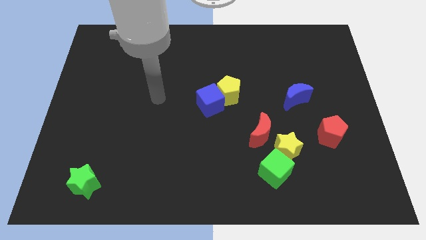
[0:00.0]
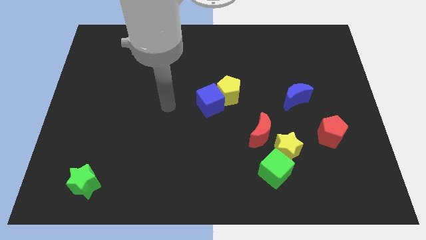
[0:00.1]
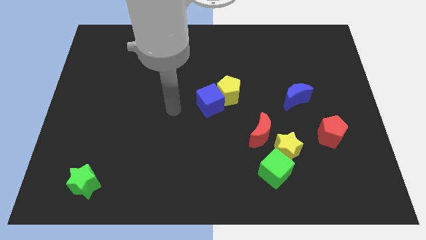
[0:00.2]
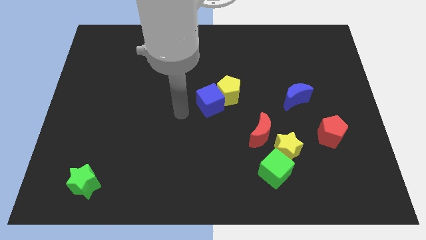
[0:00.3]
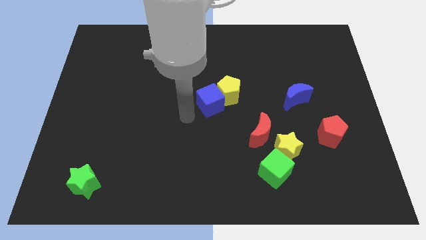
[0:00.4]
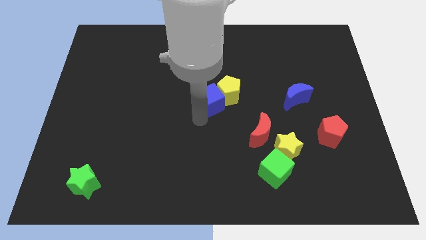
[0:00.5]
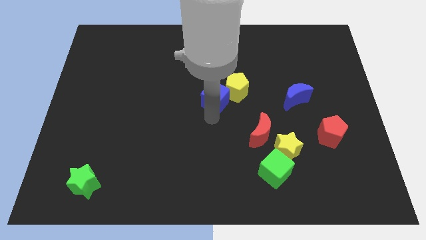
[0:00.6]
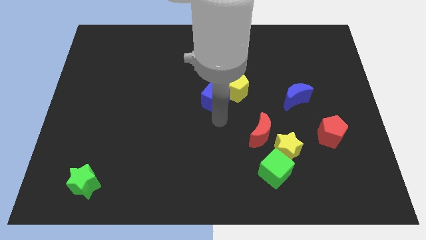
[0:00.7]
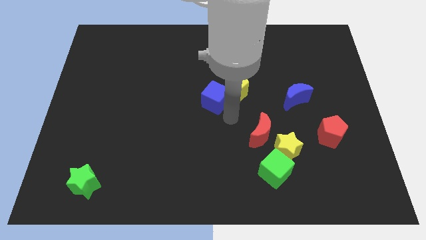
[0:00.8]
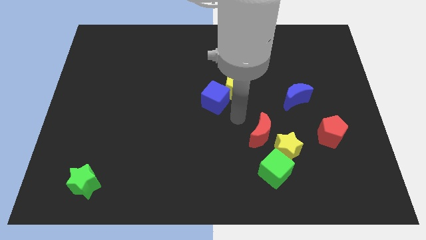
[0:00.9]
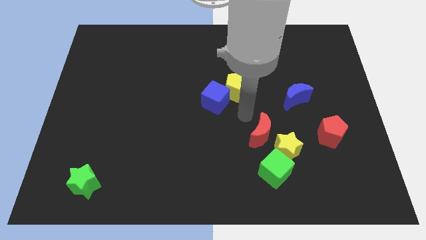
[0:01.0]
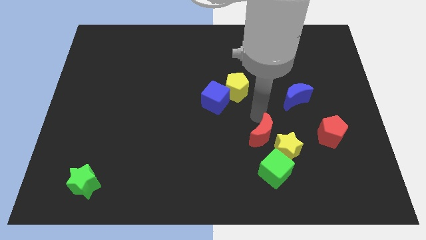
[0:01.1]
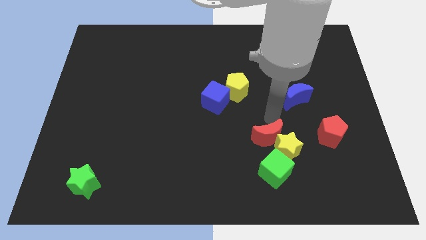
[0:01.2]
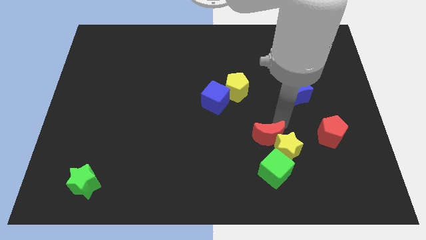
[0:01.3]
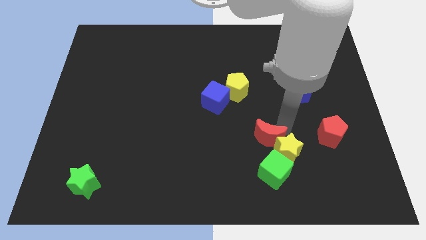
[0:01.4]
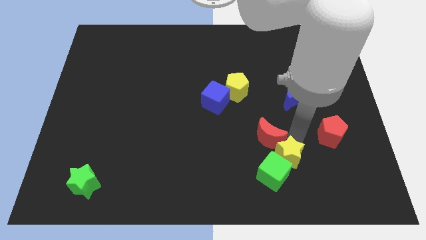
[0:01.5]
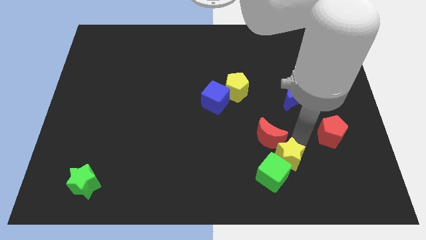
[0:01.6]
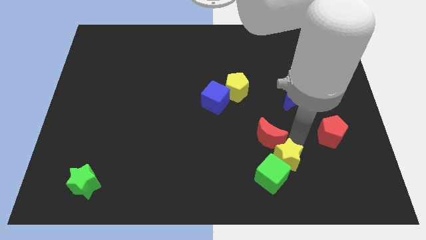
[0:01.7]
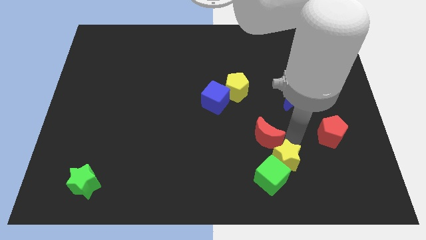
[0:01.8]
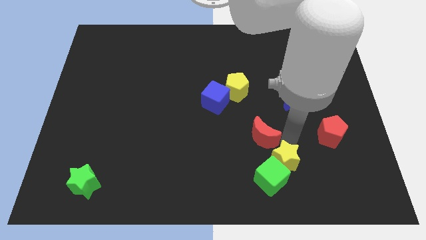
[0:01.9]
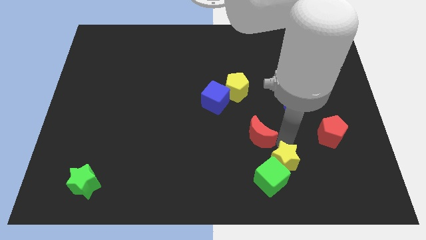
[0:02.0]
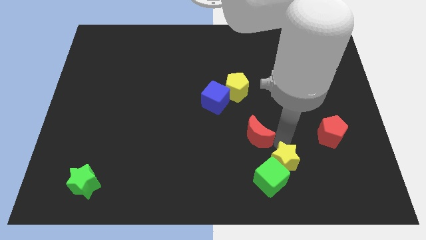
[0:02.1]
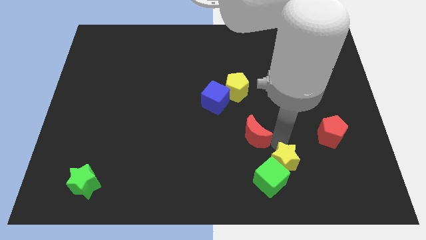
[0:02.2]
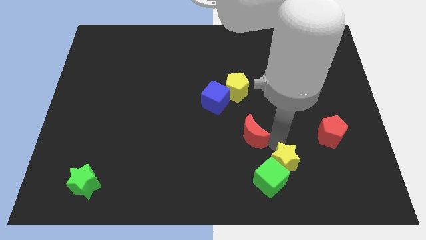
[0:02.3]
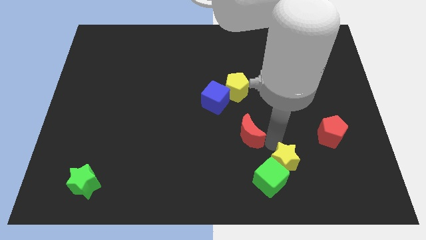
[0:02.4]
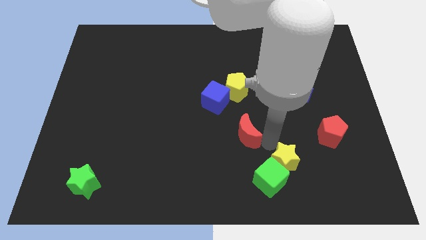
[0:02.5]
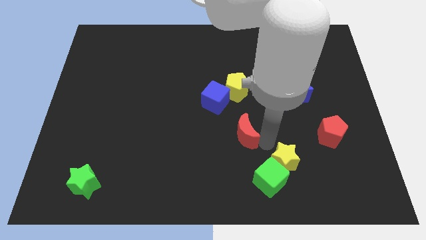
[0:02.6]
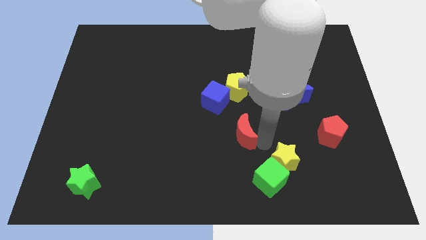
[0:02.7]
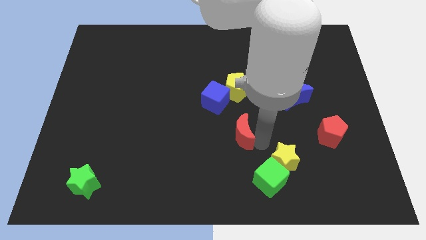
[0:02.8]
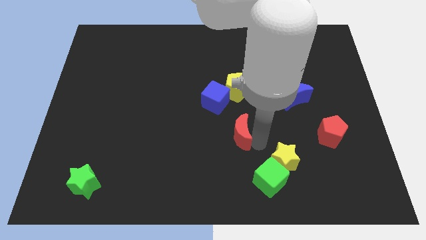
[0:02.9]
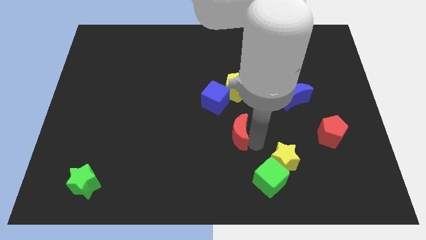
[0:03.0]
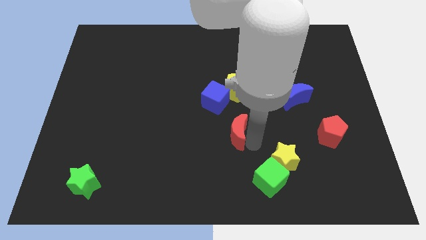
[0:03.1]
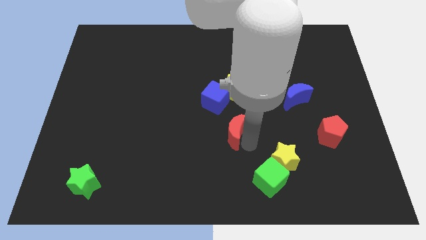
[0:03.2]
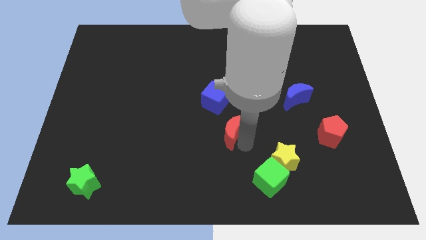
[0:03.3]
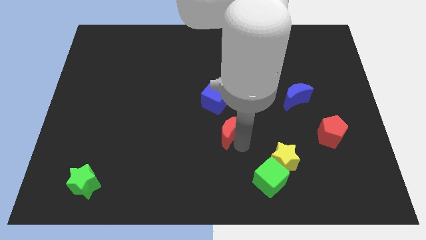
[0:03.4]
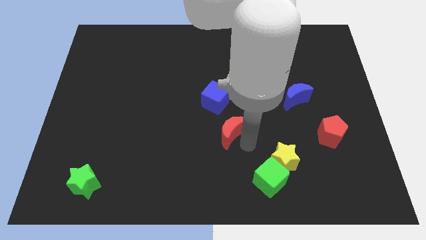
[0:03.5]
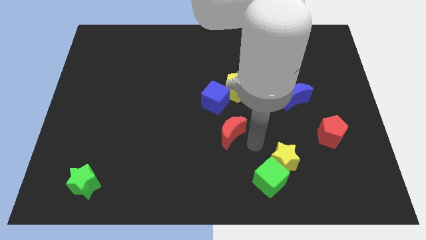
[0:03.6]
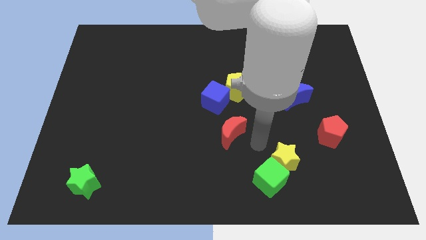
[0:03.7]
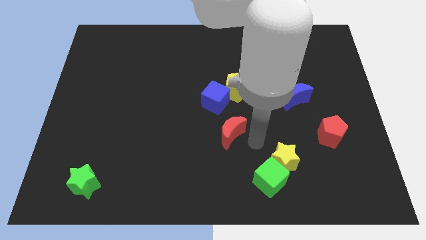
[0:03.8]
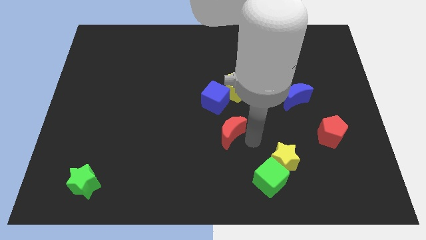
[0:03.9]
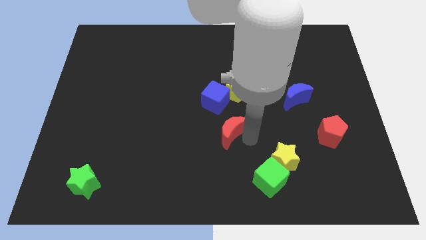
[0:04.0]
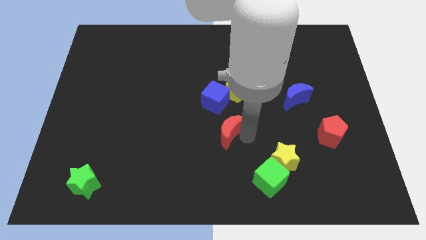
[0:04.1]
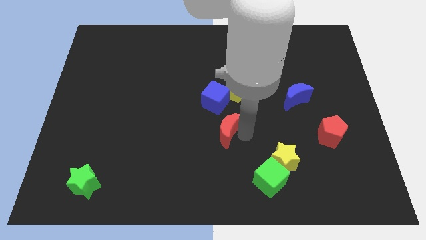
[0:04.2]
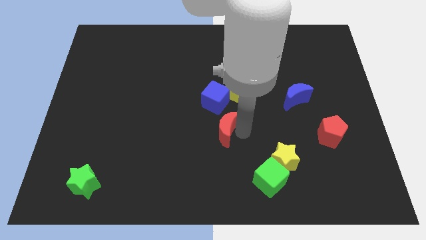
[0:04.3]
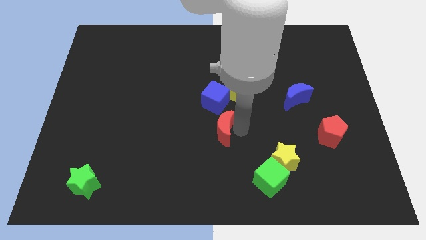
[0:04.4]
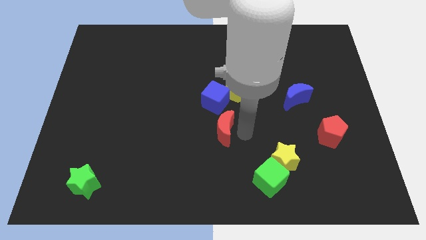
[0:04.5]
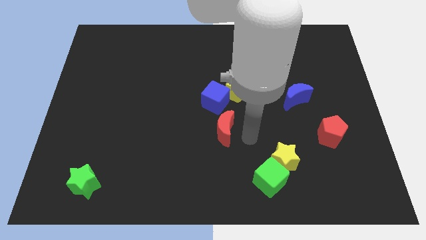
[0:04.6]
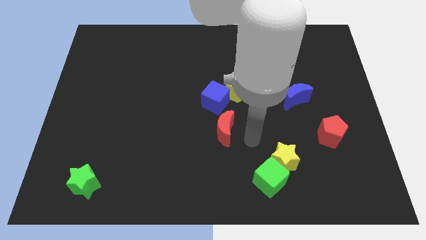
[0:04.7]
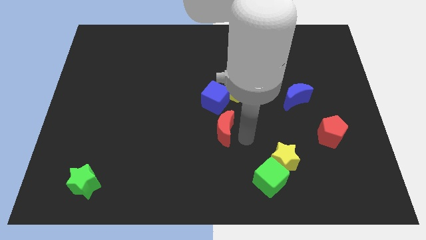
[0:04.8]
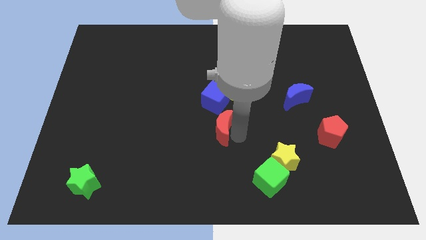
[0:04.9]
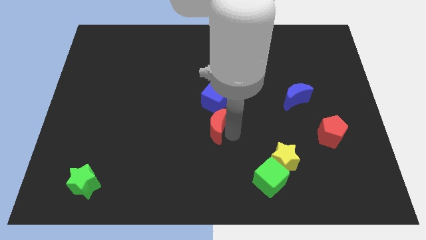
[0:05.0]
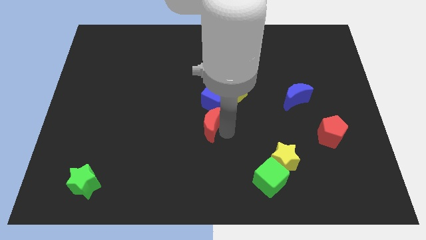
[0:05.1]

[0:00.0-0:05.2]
move the red moon to the bottom left of the blue cube

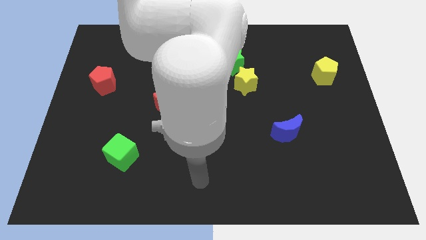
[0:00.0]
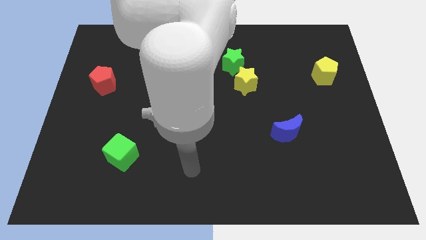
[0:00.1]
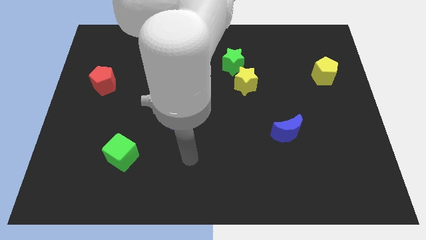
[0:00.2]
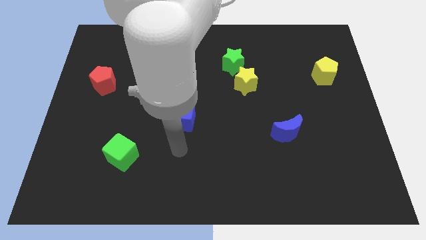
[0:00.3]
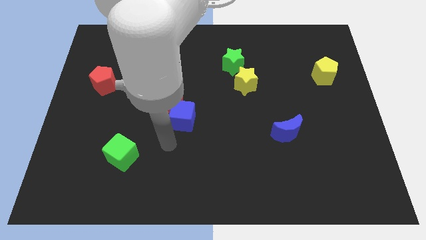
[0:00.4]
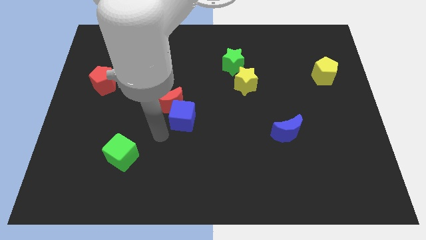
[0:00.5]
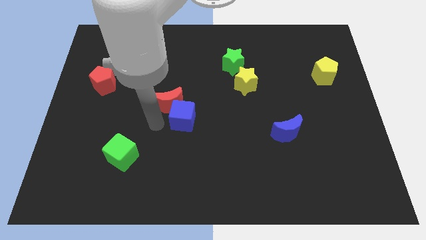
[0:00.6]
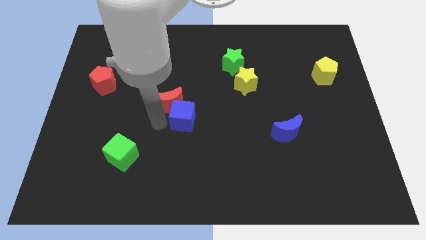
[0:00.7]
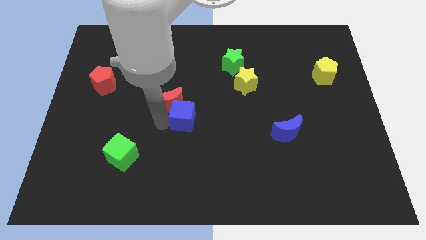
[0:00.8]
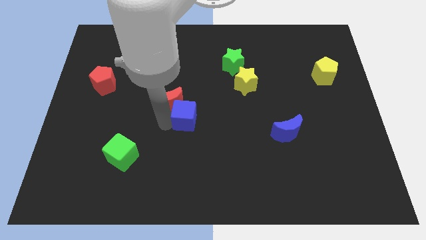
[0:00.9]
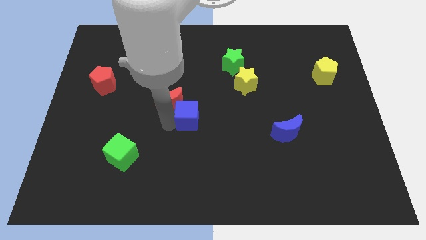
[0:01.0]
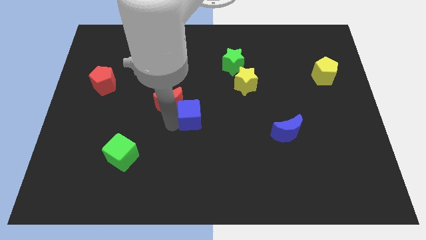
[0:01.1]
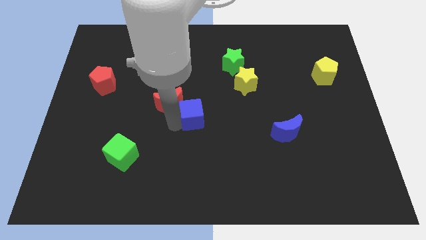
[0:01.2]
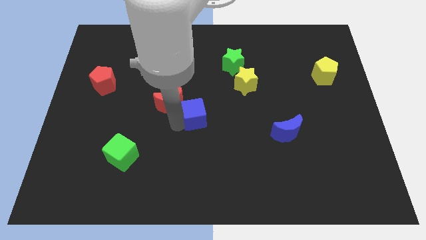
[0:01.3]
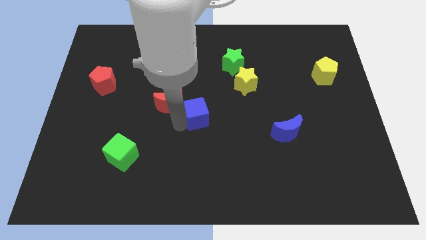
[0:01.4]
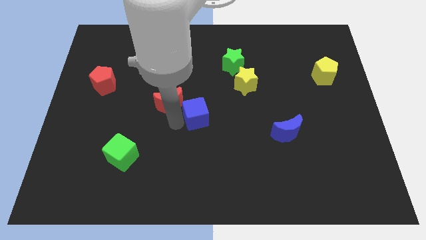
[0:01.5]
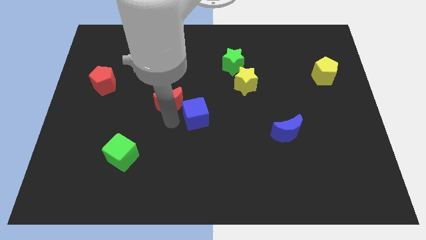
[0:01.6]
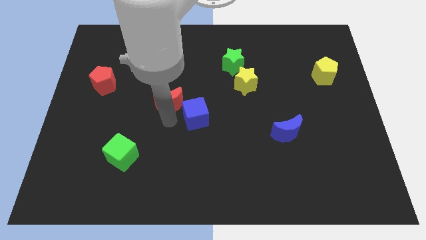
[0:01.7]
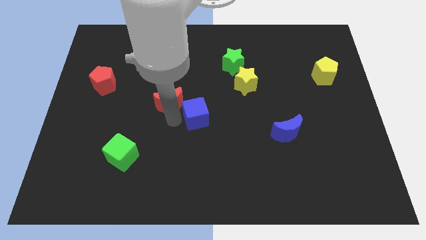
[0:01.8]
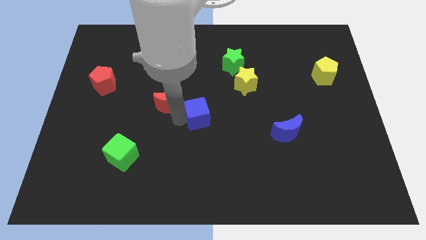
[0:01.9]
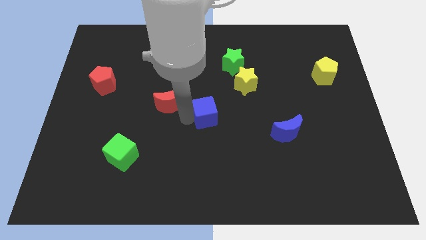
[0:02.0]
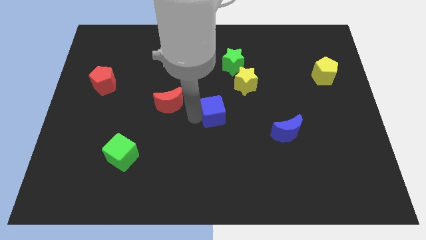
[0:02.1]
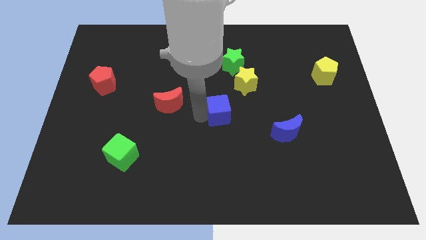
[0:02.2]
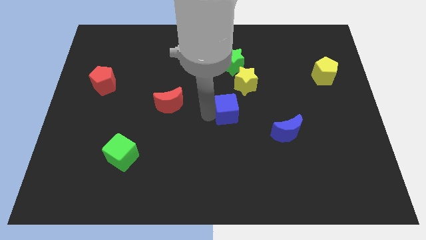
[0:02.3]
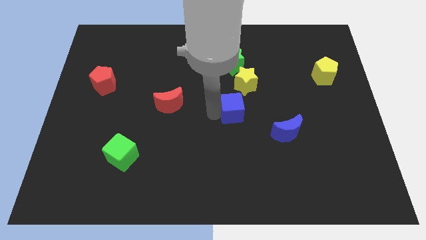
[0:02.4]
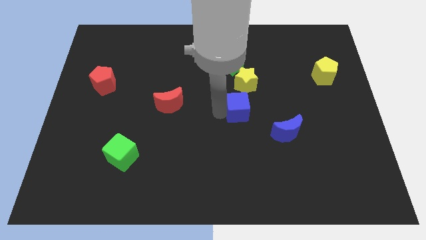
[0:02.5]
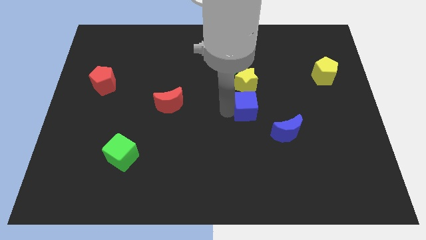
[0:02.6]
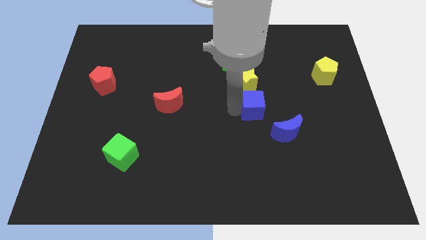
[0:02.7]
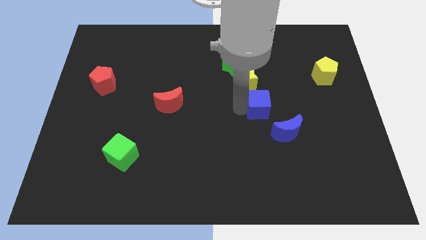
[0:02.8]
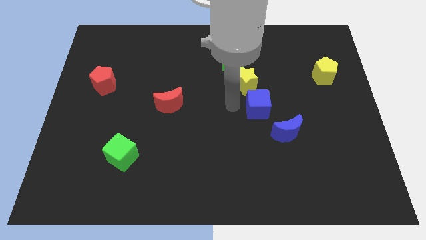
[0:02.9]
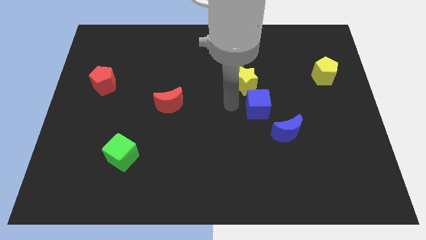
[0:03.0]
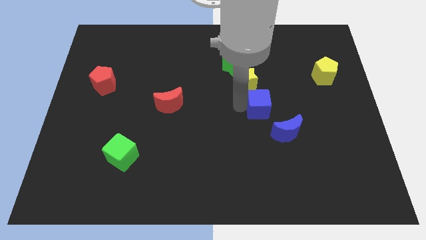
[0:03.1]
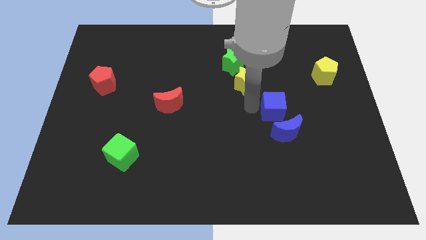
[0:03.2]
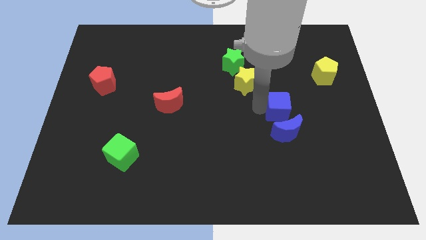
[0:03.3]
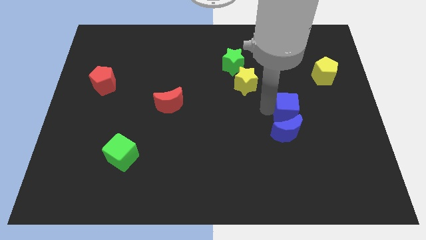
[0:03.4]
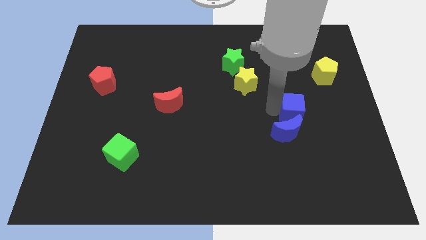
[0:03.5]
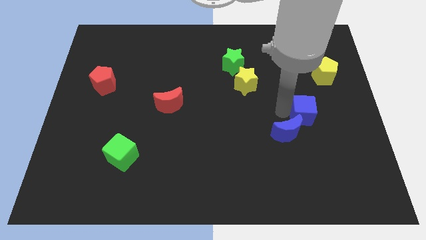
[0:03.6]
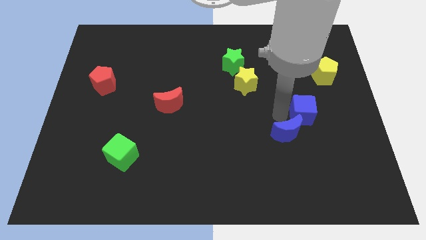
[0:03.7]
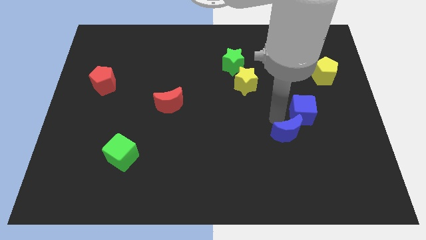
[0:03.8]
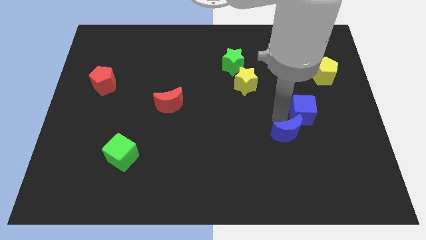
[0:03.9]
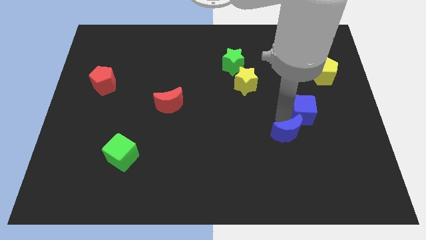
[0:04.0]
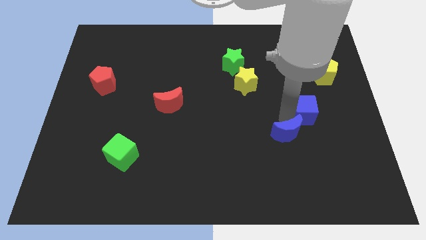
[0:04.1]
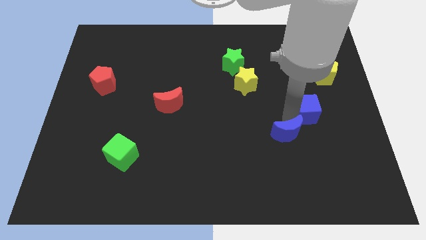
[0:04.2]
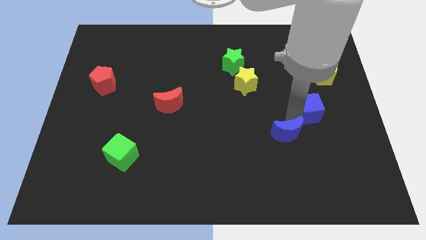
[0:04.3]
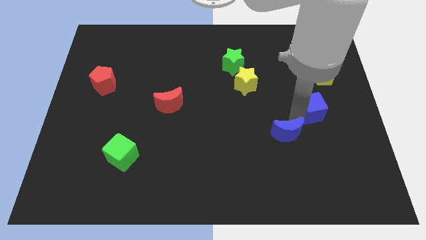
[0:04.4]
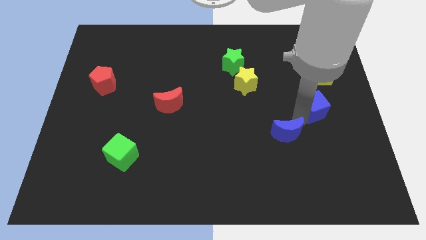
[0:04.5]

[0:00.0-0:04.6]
put the blue cube below the yellow pentagon
